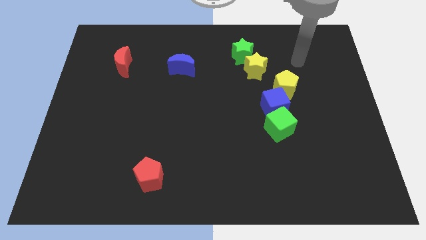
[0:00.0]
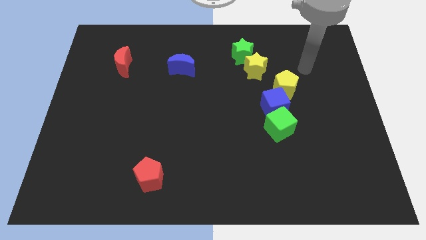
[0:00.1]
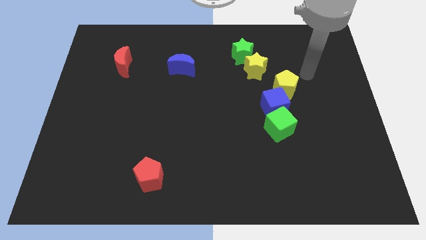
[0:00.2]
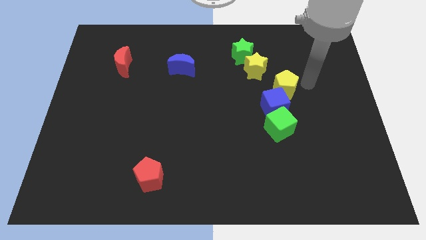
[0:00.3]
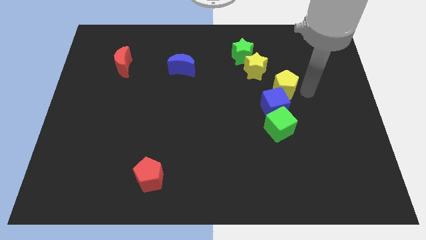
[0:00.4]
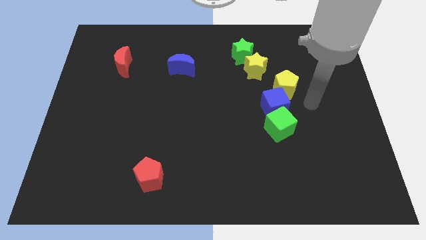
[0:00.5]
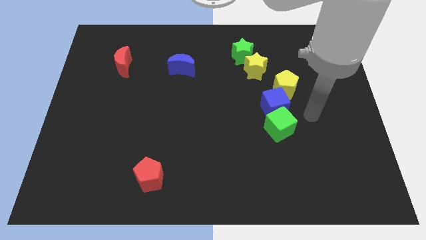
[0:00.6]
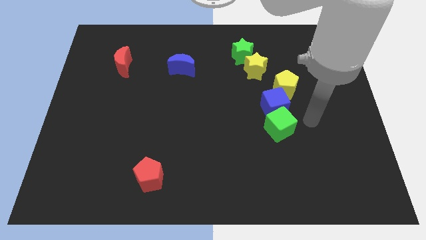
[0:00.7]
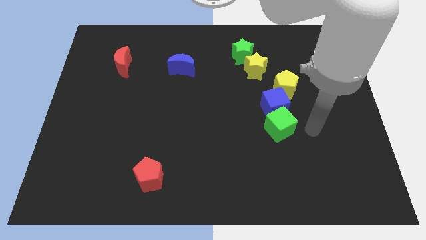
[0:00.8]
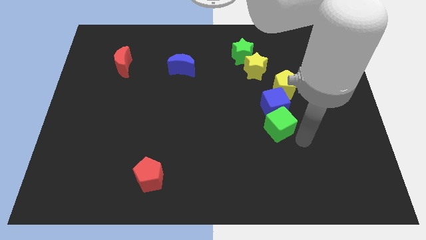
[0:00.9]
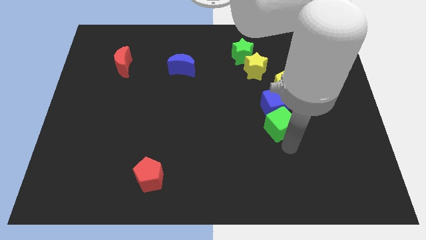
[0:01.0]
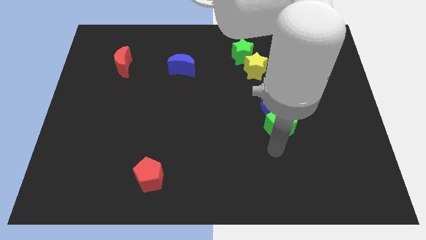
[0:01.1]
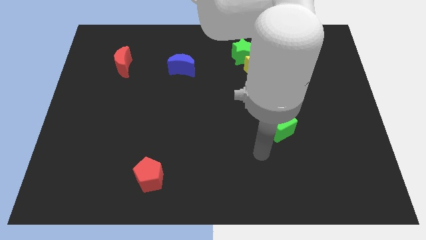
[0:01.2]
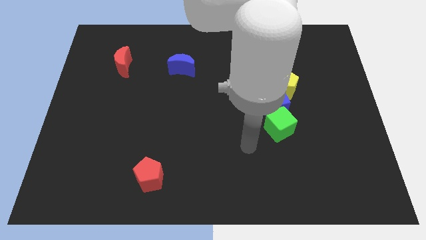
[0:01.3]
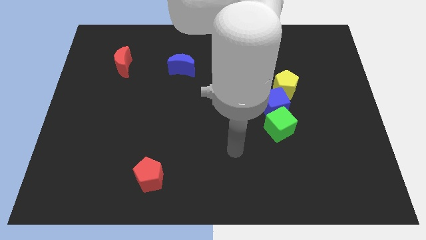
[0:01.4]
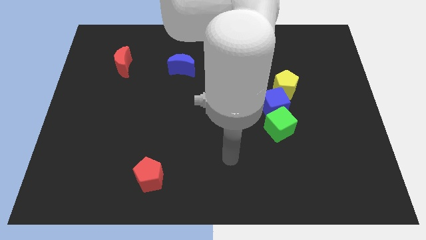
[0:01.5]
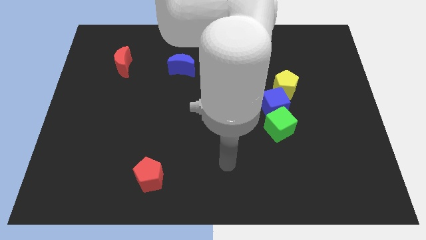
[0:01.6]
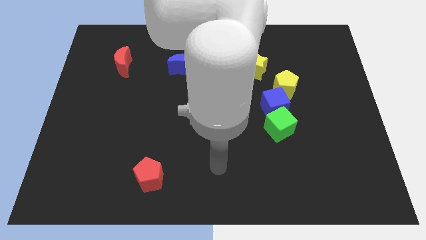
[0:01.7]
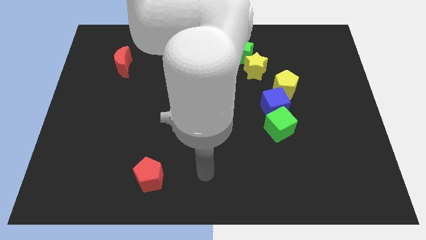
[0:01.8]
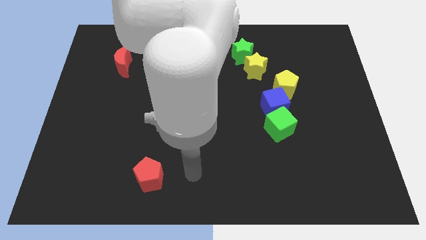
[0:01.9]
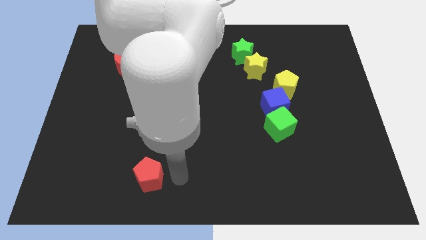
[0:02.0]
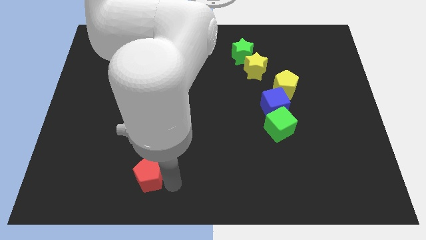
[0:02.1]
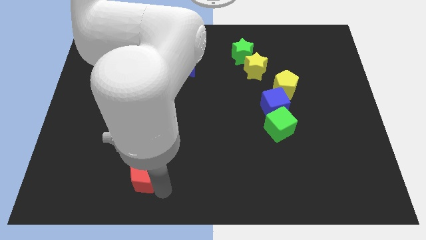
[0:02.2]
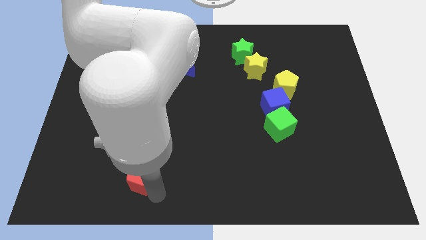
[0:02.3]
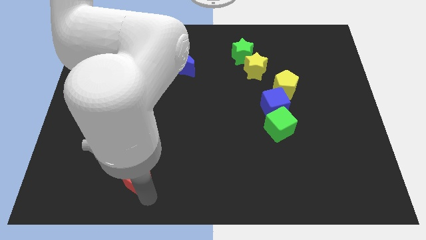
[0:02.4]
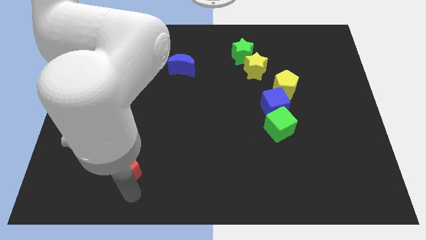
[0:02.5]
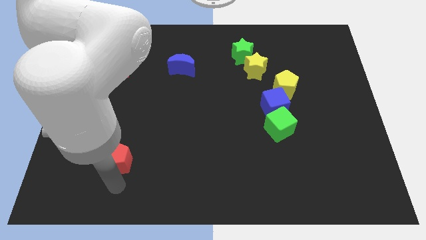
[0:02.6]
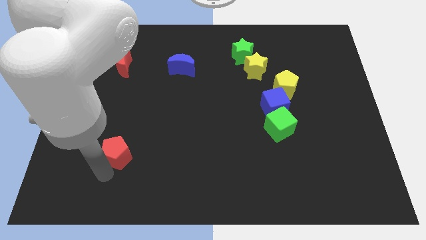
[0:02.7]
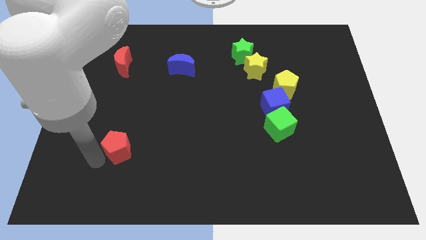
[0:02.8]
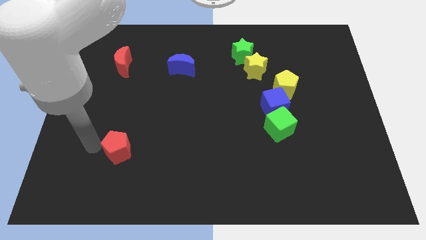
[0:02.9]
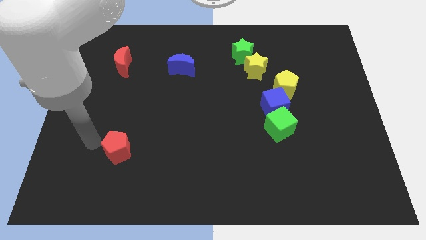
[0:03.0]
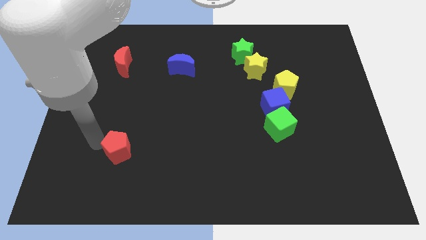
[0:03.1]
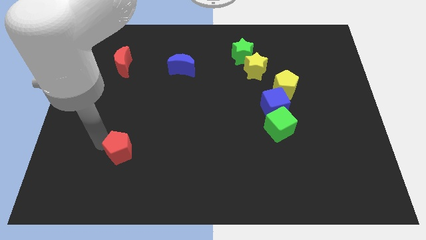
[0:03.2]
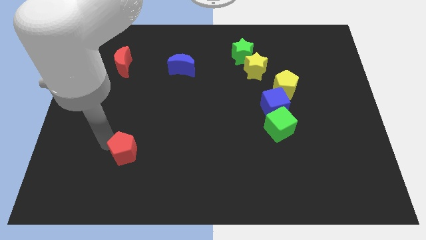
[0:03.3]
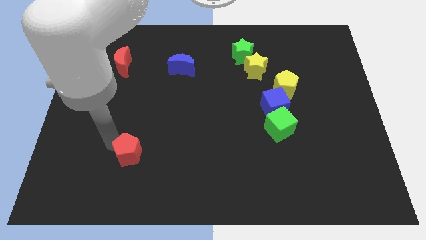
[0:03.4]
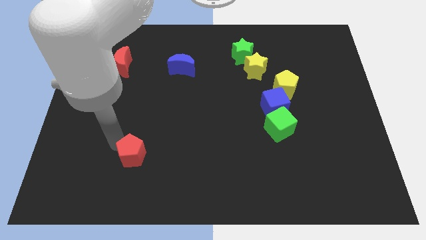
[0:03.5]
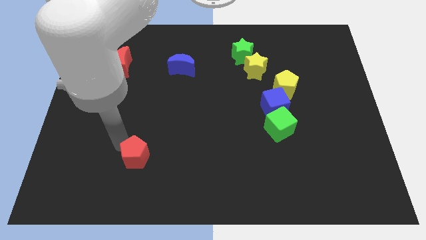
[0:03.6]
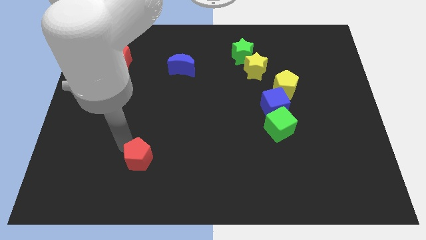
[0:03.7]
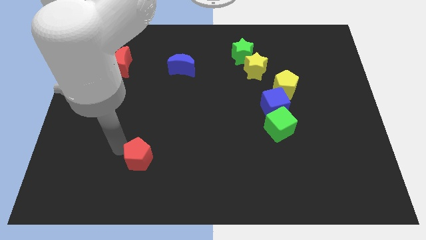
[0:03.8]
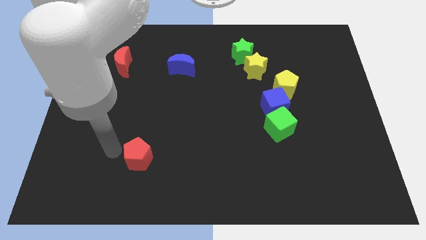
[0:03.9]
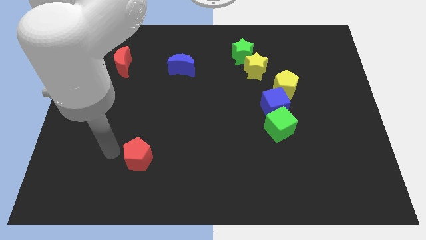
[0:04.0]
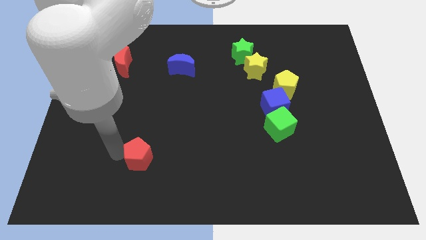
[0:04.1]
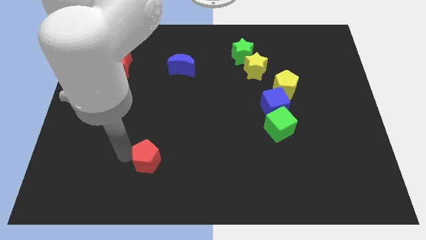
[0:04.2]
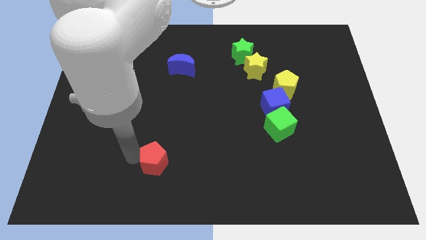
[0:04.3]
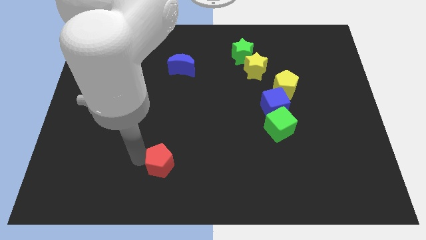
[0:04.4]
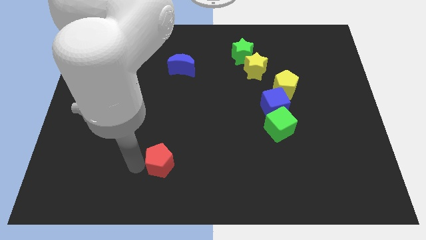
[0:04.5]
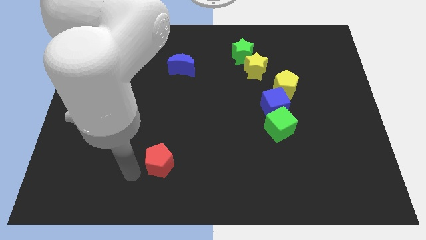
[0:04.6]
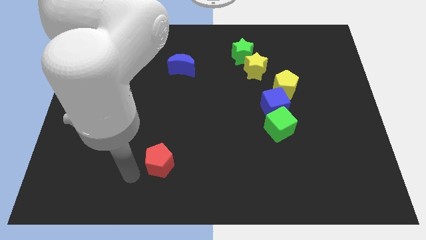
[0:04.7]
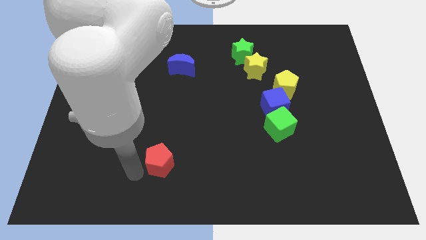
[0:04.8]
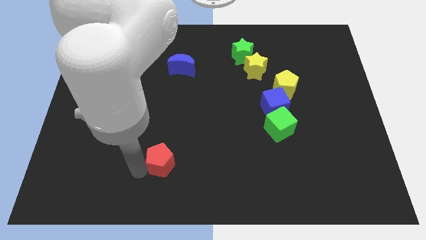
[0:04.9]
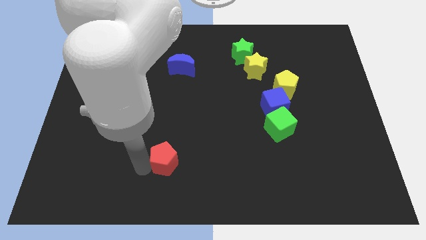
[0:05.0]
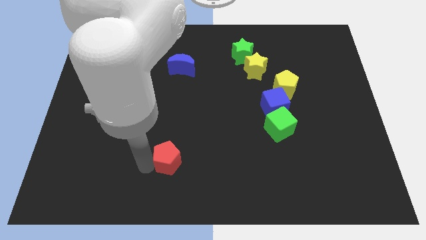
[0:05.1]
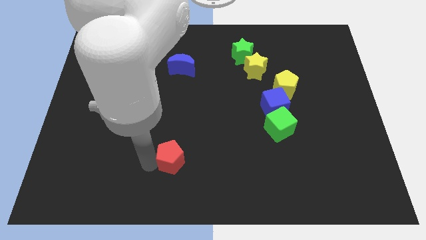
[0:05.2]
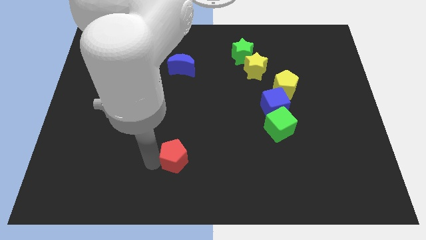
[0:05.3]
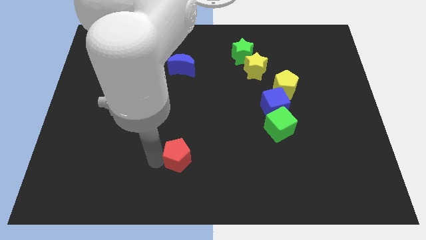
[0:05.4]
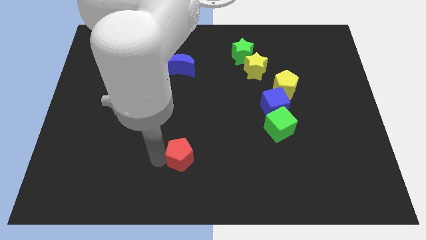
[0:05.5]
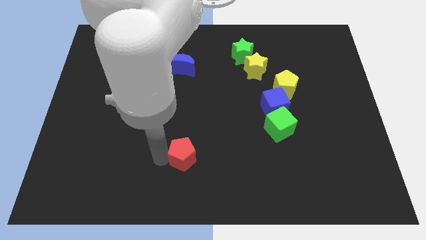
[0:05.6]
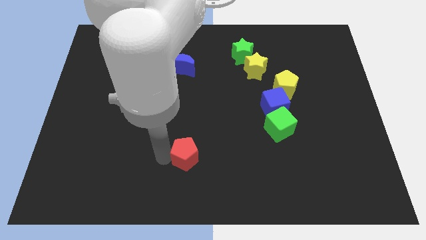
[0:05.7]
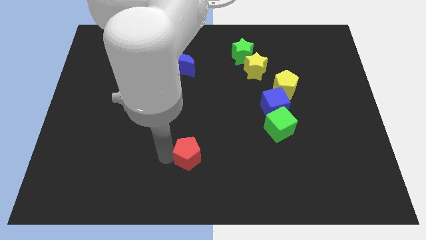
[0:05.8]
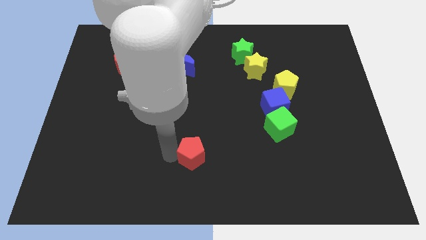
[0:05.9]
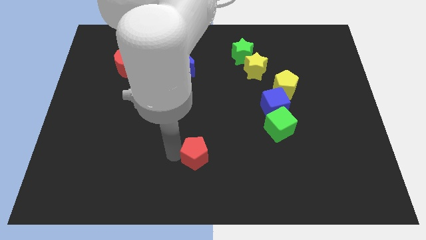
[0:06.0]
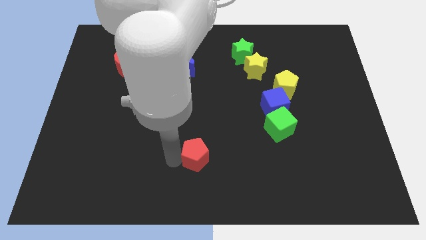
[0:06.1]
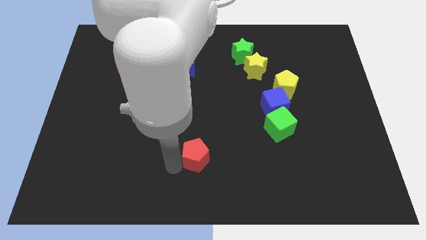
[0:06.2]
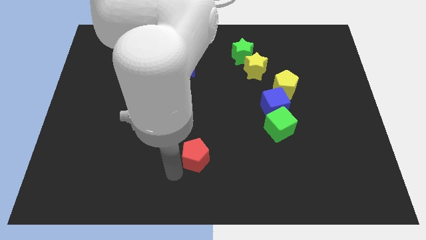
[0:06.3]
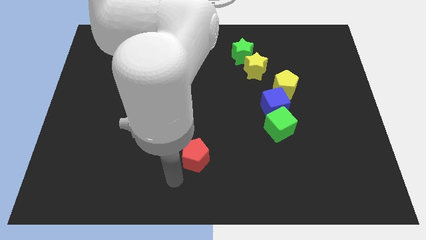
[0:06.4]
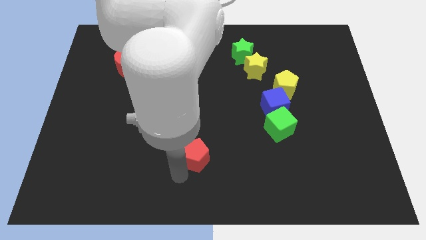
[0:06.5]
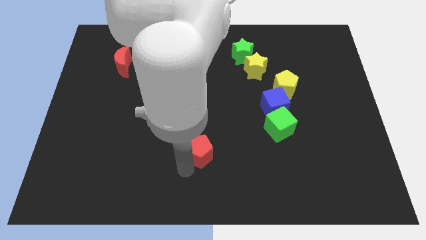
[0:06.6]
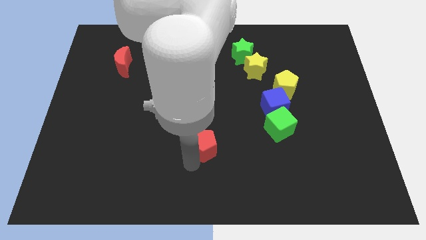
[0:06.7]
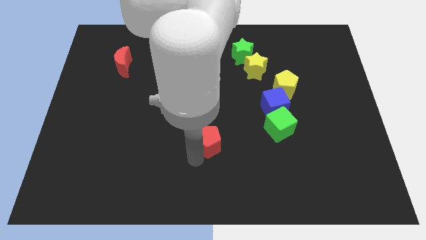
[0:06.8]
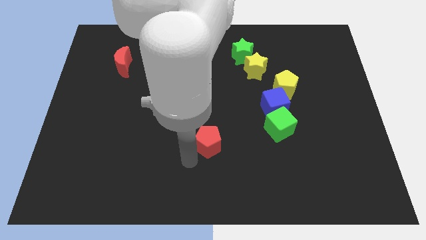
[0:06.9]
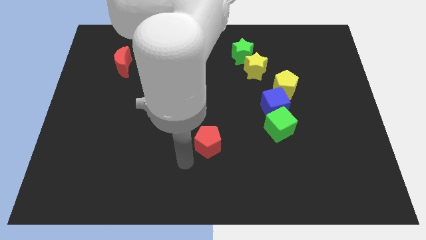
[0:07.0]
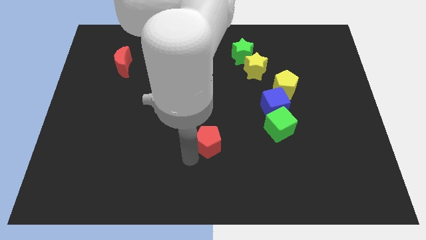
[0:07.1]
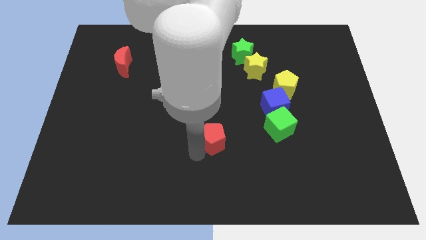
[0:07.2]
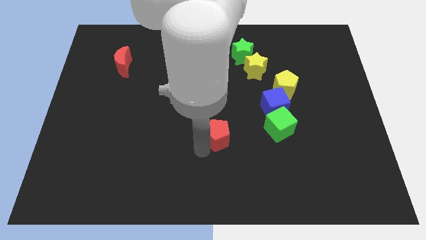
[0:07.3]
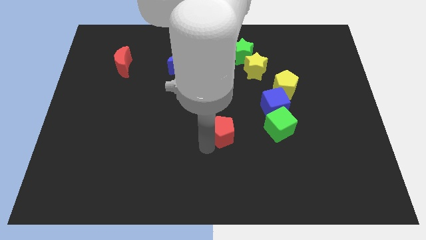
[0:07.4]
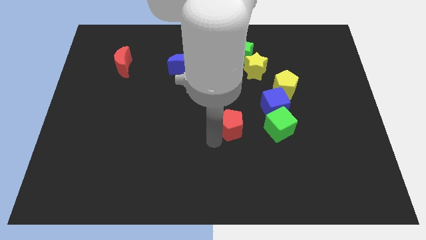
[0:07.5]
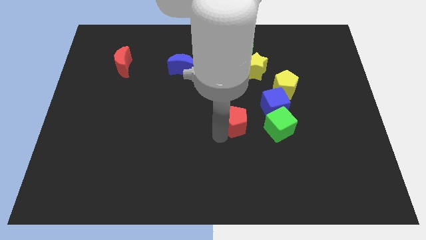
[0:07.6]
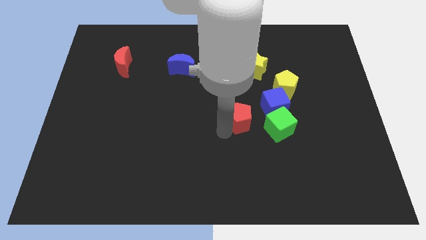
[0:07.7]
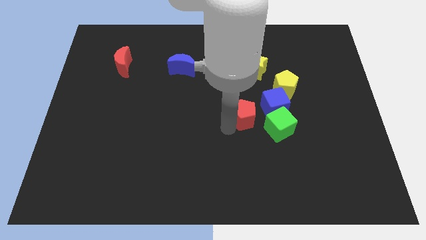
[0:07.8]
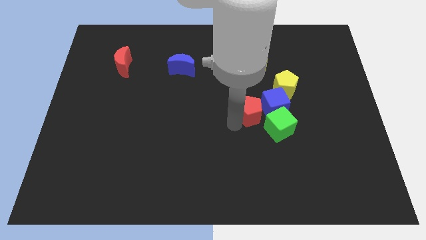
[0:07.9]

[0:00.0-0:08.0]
slide the red pentagon to the bottom left of the yellow pentagon
